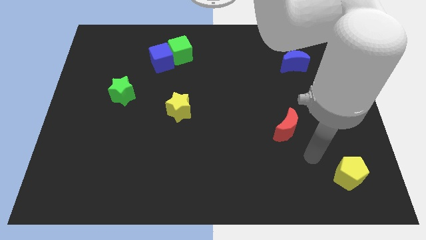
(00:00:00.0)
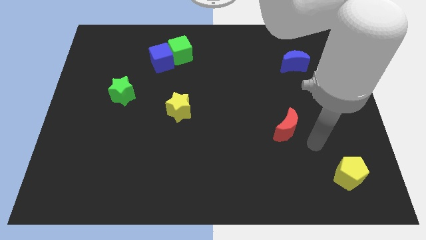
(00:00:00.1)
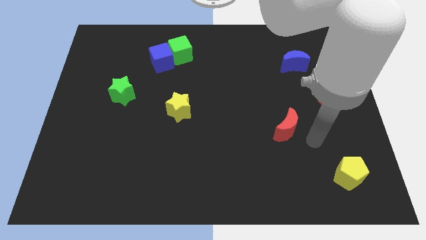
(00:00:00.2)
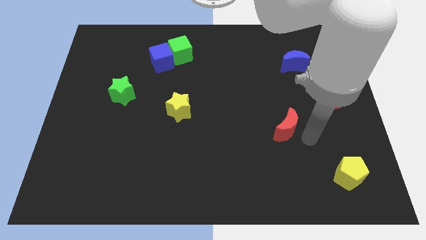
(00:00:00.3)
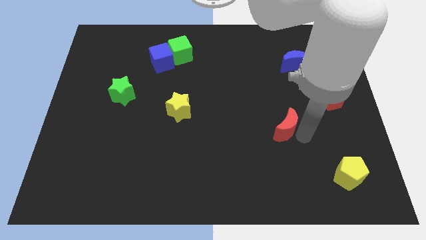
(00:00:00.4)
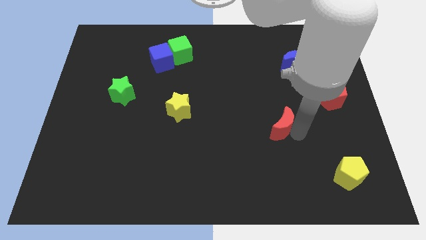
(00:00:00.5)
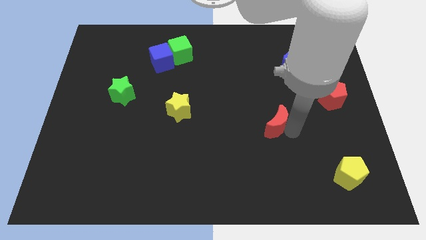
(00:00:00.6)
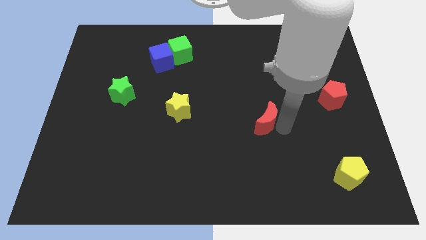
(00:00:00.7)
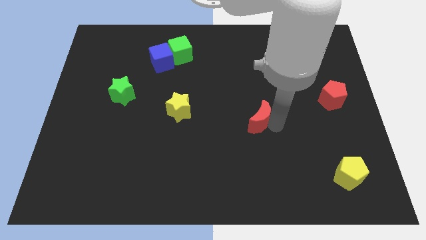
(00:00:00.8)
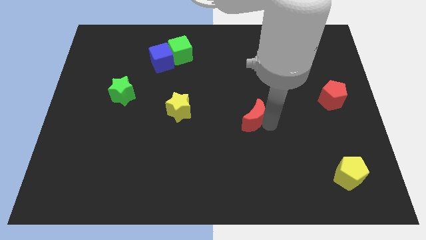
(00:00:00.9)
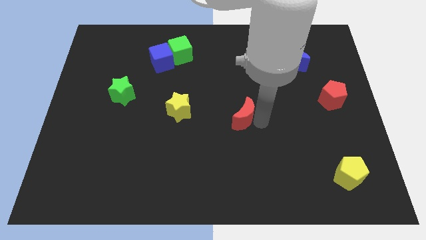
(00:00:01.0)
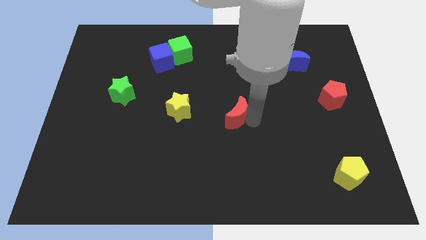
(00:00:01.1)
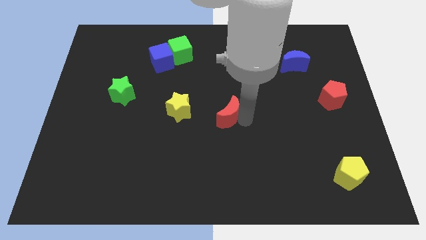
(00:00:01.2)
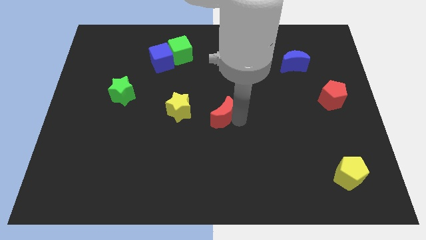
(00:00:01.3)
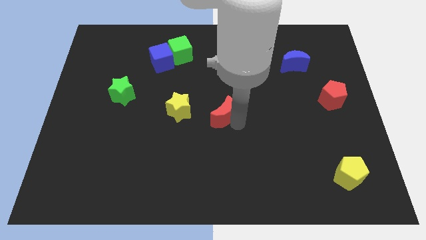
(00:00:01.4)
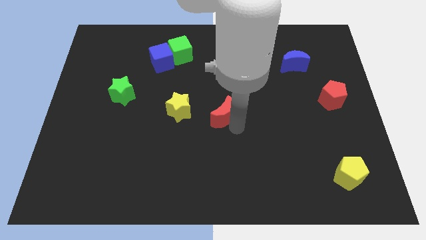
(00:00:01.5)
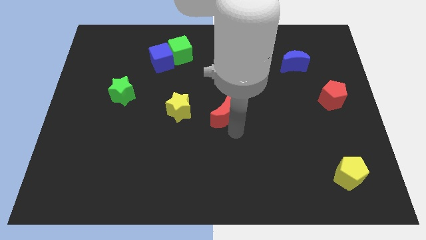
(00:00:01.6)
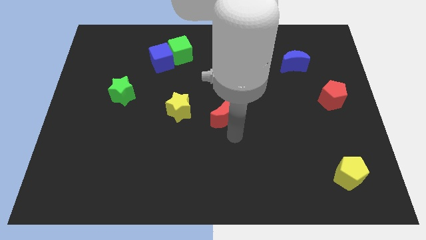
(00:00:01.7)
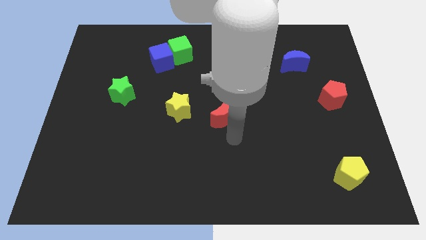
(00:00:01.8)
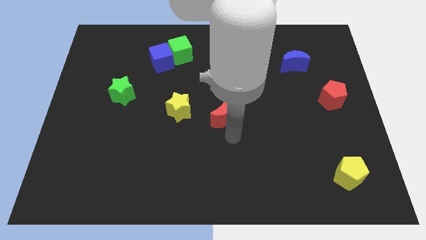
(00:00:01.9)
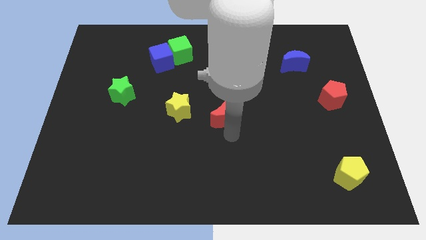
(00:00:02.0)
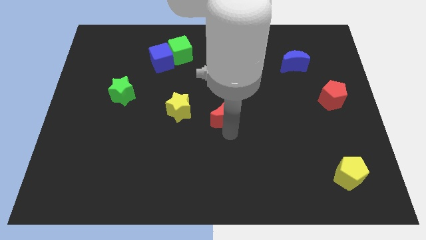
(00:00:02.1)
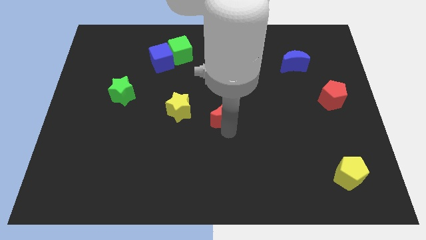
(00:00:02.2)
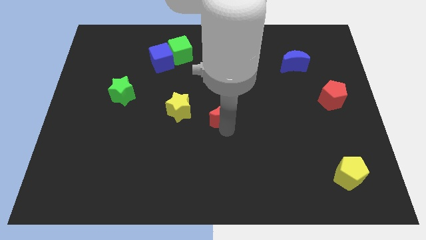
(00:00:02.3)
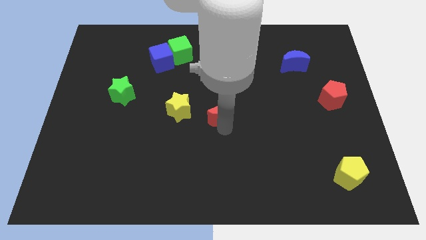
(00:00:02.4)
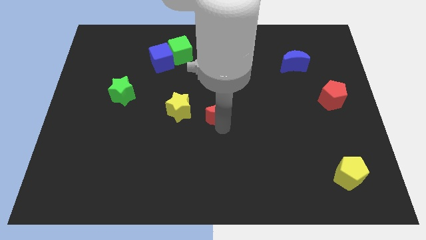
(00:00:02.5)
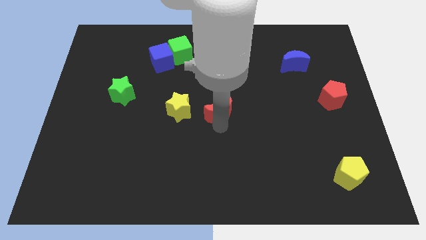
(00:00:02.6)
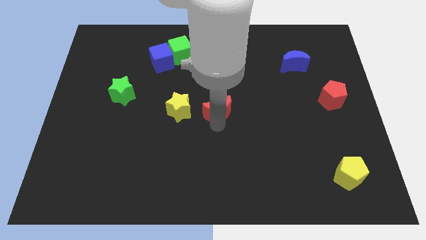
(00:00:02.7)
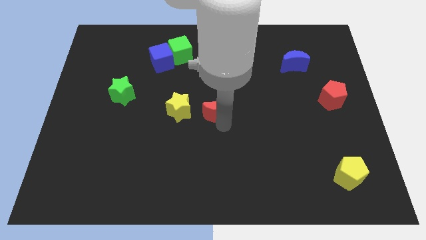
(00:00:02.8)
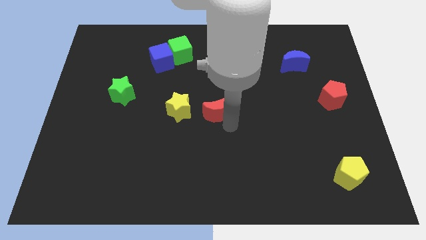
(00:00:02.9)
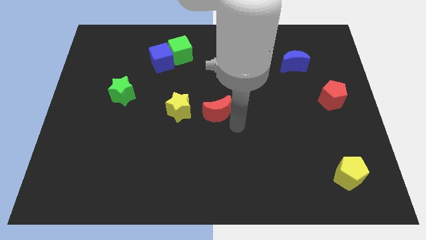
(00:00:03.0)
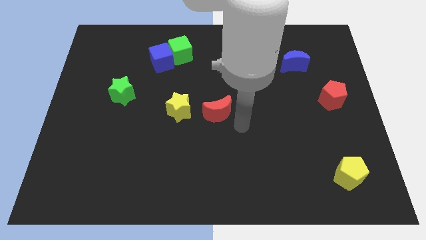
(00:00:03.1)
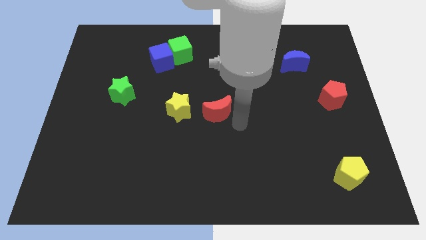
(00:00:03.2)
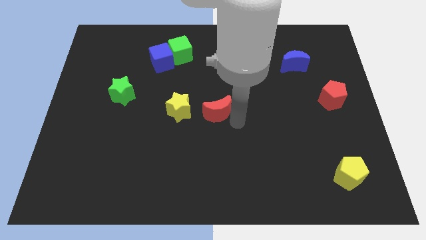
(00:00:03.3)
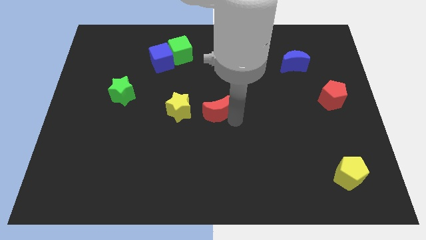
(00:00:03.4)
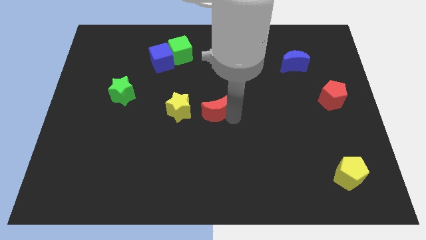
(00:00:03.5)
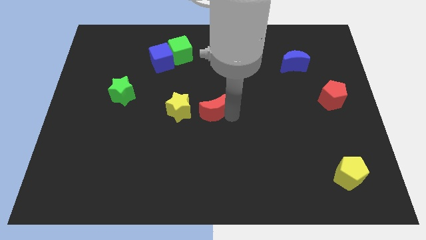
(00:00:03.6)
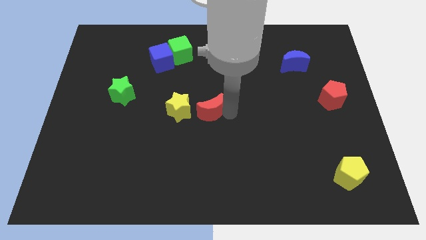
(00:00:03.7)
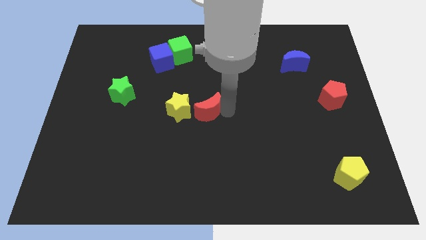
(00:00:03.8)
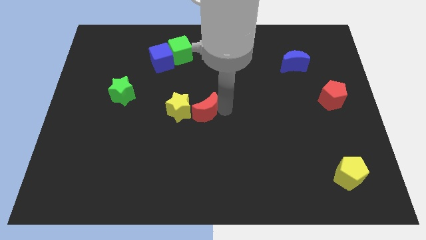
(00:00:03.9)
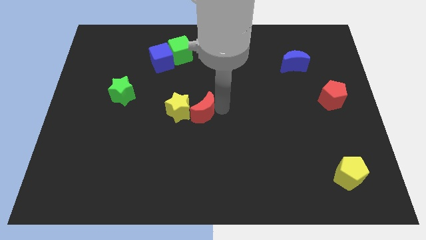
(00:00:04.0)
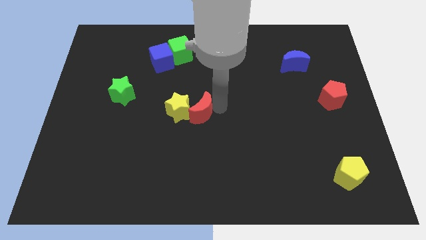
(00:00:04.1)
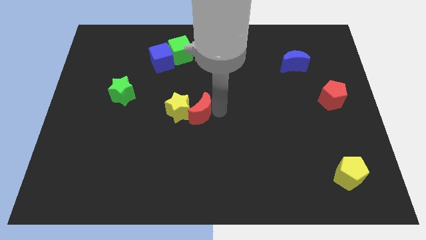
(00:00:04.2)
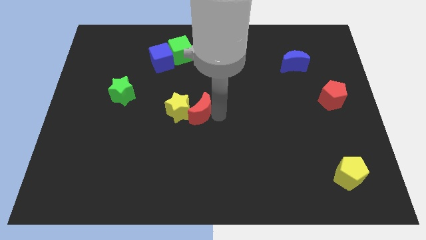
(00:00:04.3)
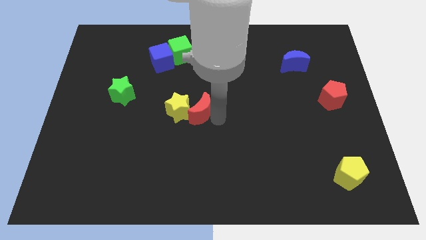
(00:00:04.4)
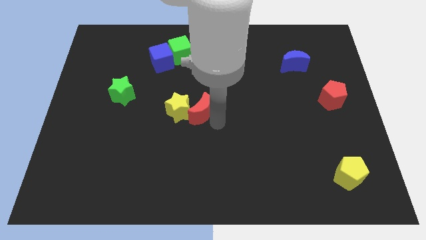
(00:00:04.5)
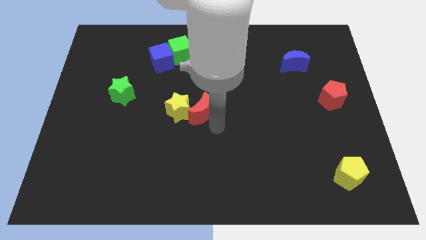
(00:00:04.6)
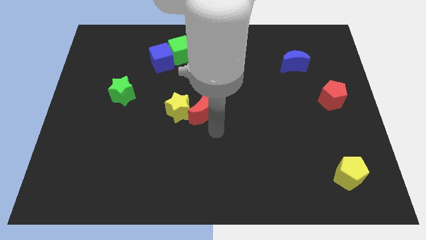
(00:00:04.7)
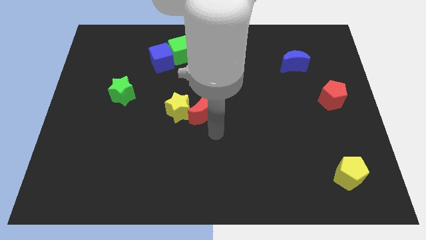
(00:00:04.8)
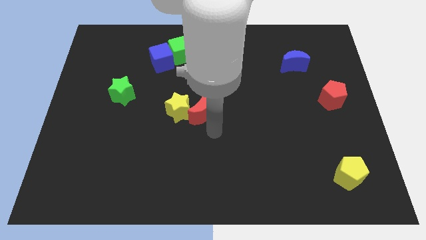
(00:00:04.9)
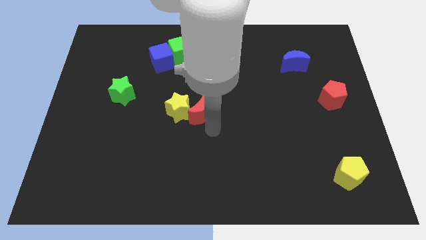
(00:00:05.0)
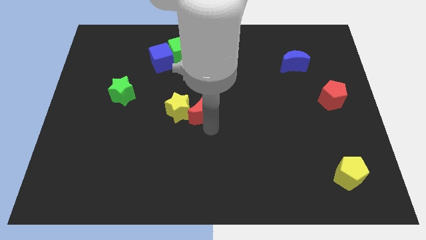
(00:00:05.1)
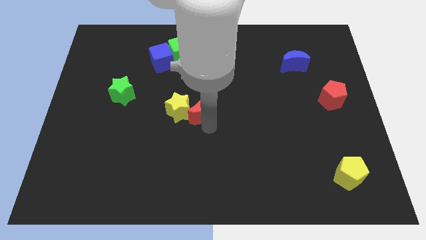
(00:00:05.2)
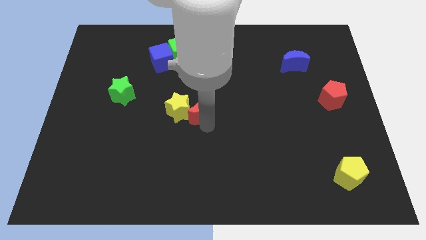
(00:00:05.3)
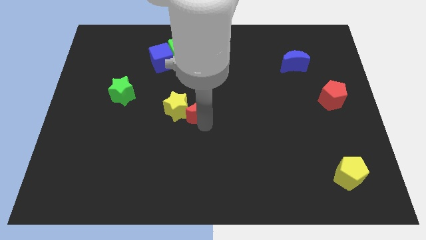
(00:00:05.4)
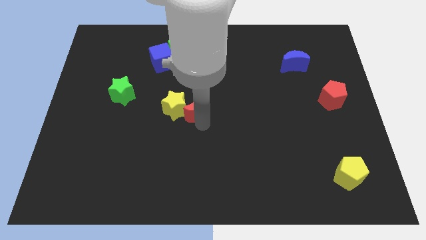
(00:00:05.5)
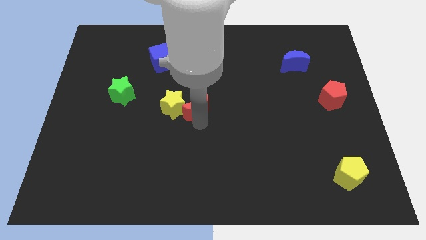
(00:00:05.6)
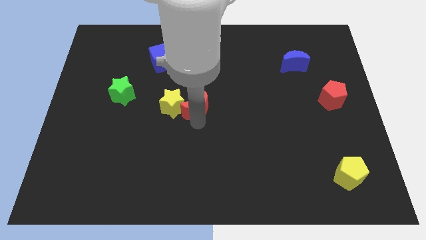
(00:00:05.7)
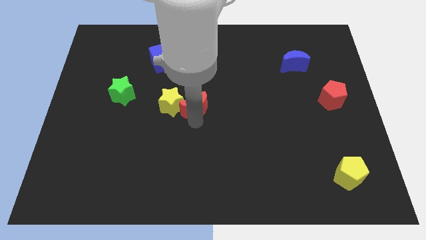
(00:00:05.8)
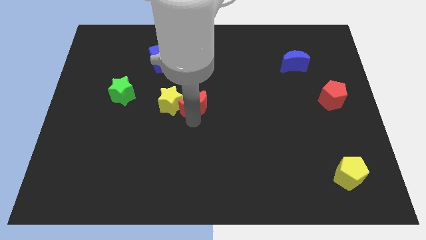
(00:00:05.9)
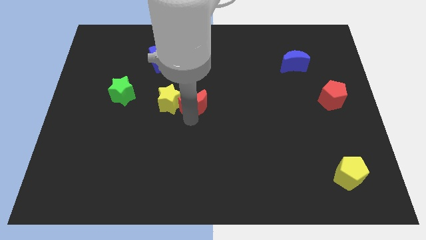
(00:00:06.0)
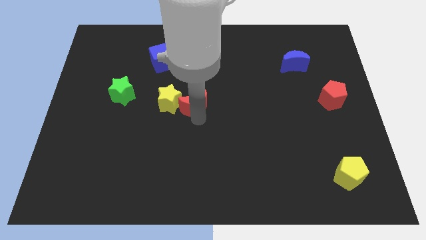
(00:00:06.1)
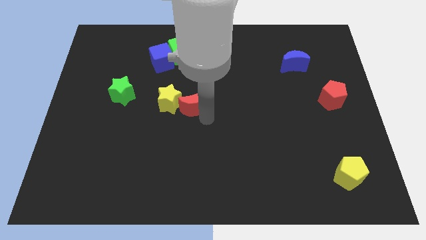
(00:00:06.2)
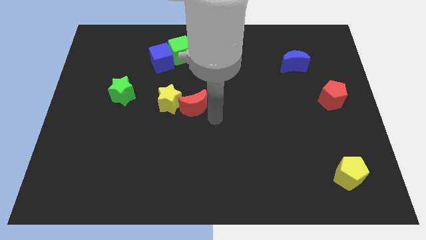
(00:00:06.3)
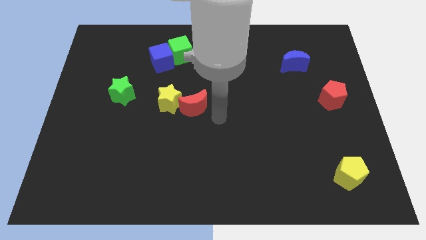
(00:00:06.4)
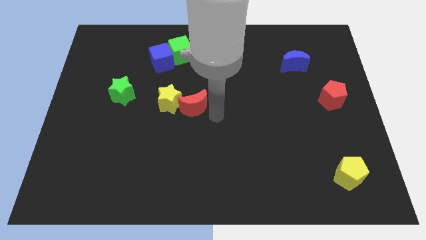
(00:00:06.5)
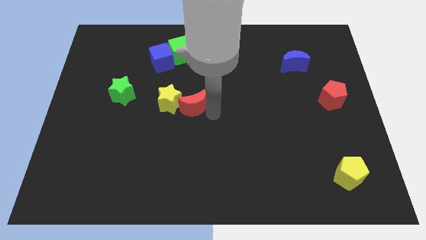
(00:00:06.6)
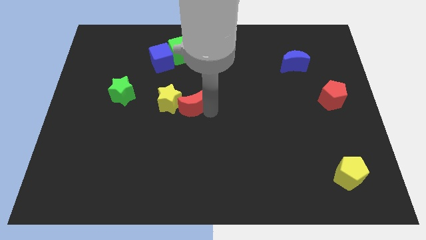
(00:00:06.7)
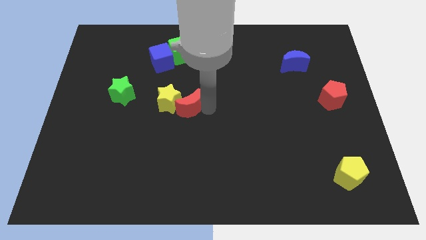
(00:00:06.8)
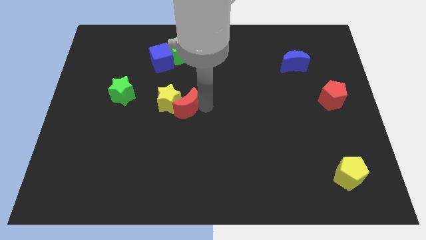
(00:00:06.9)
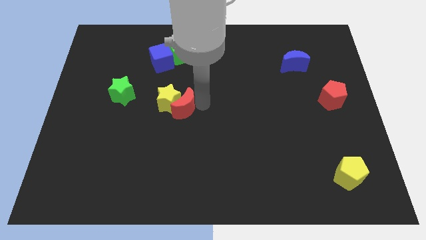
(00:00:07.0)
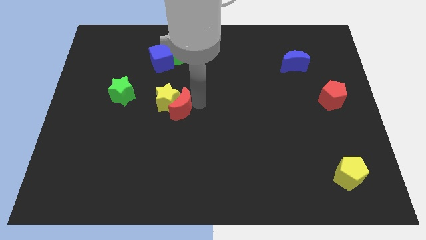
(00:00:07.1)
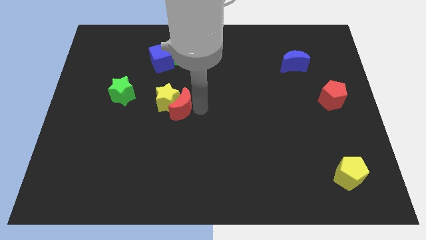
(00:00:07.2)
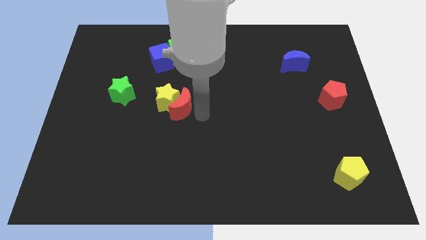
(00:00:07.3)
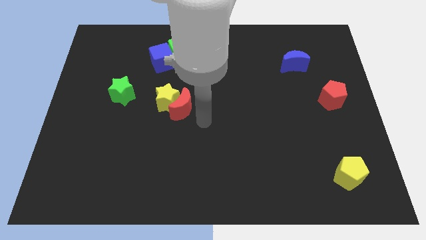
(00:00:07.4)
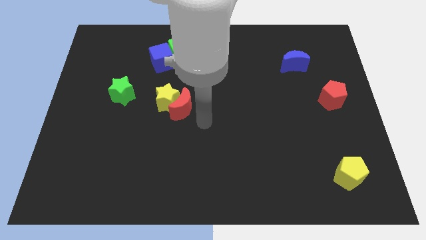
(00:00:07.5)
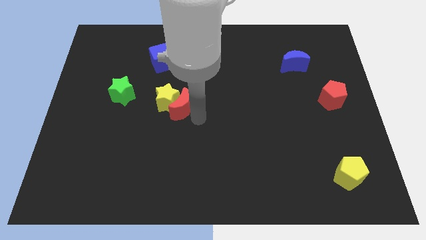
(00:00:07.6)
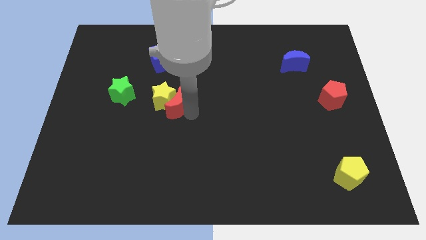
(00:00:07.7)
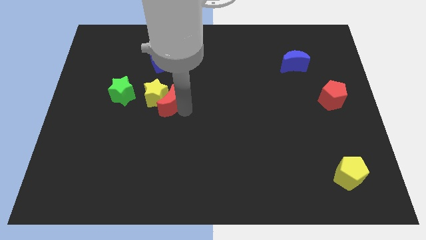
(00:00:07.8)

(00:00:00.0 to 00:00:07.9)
push the red moon below the blue cube
